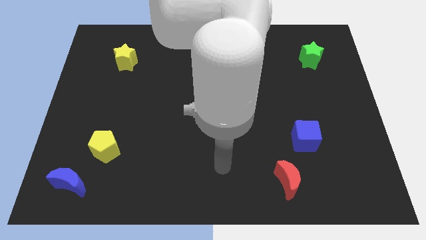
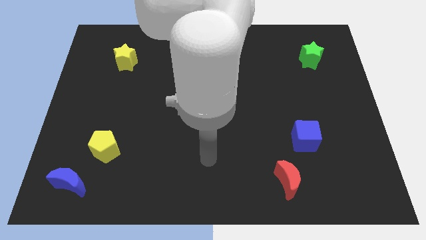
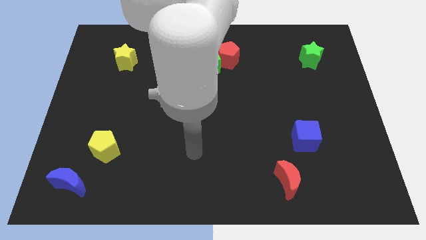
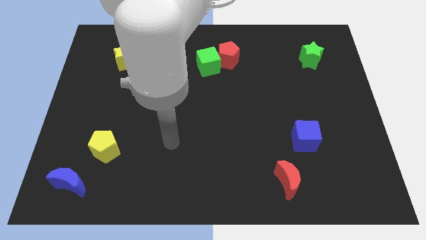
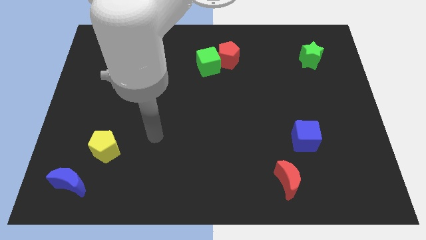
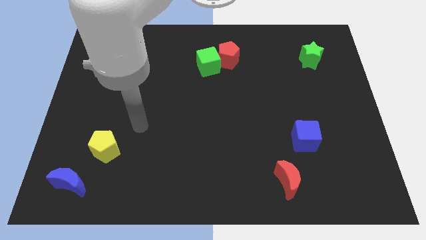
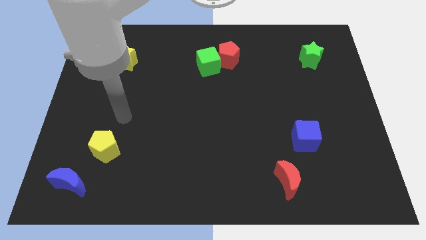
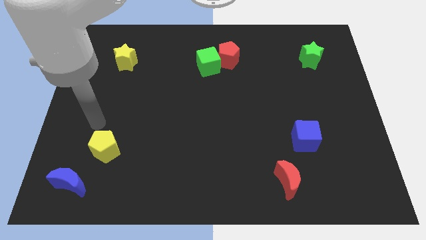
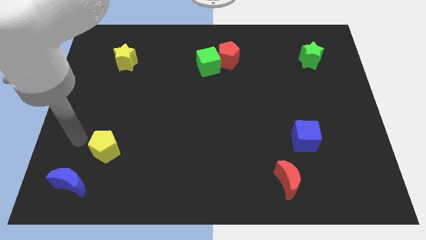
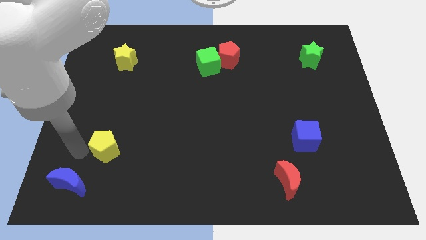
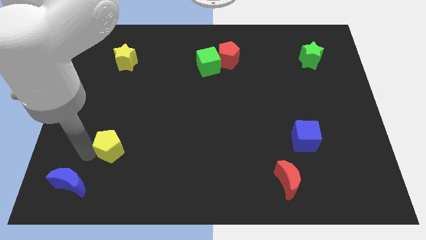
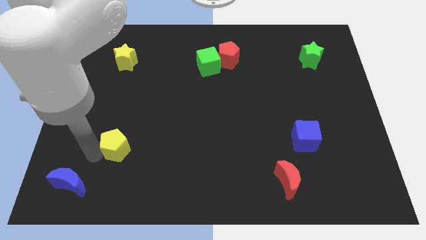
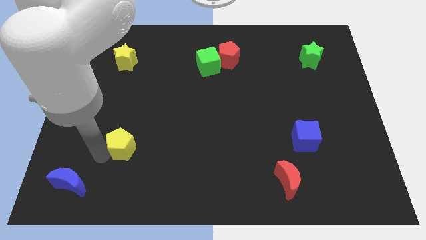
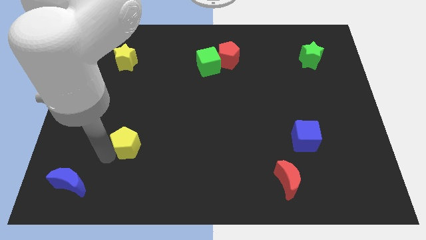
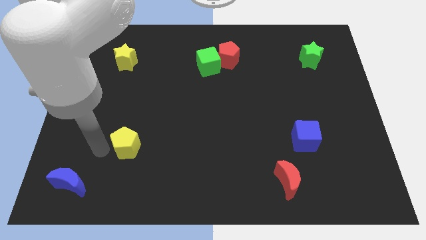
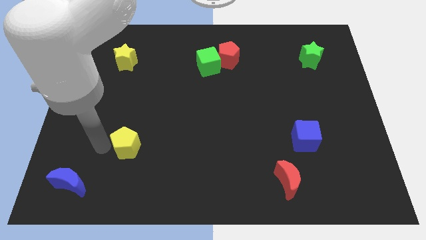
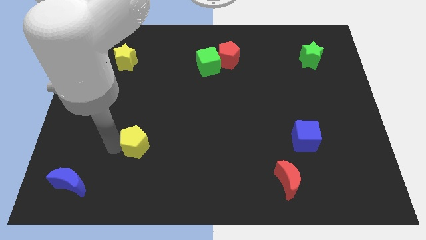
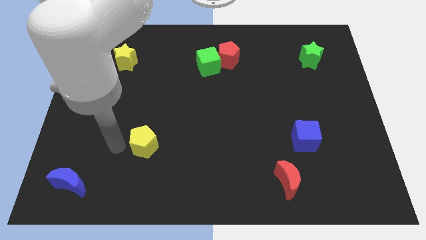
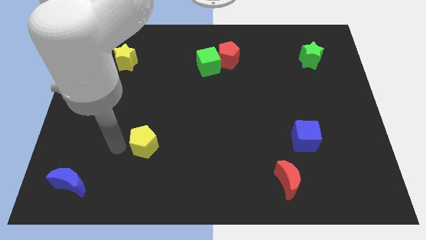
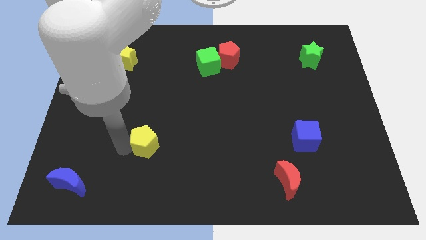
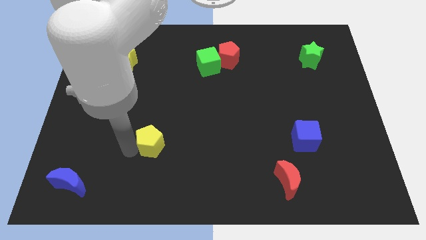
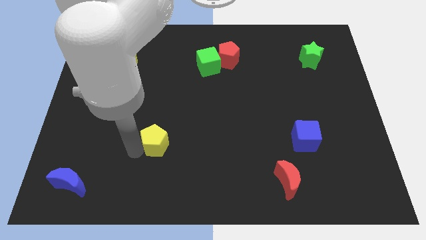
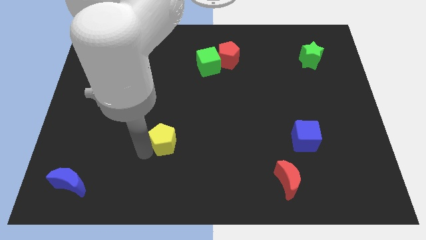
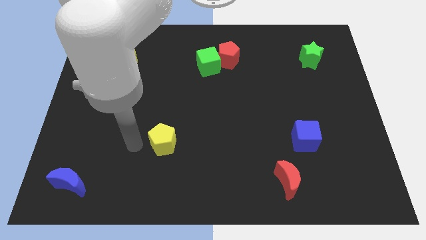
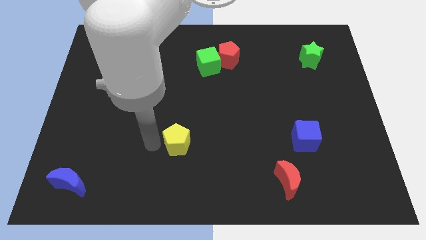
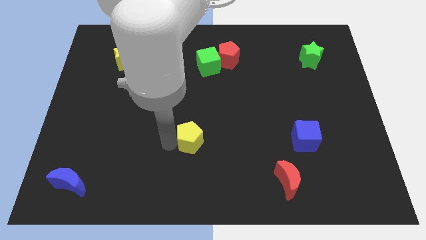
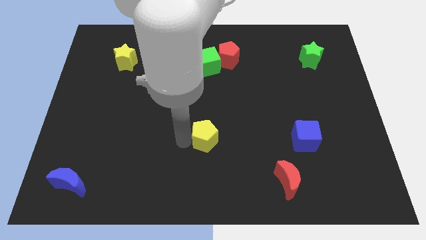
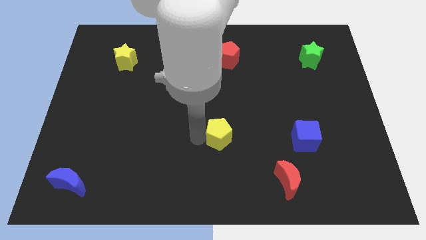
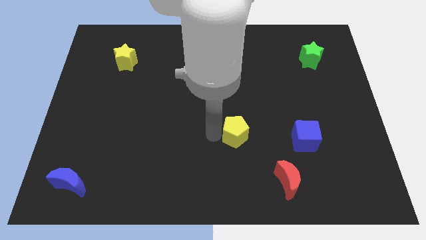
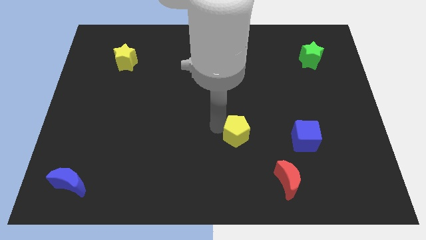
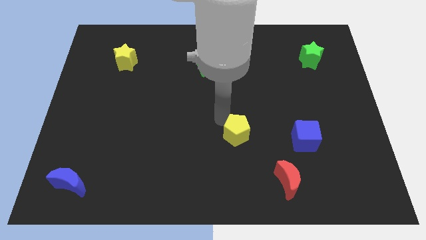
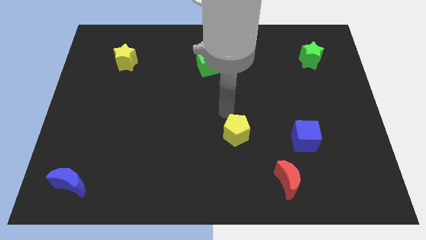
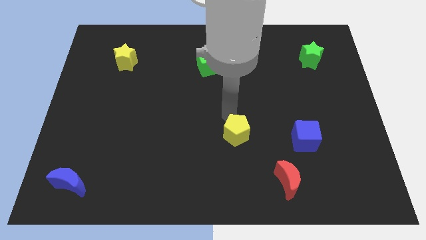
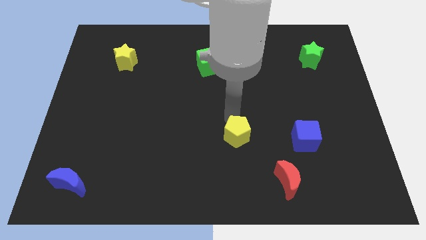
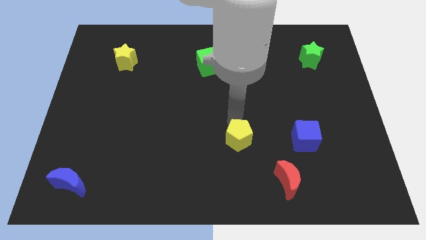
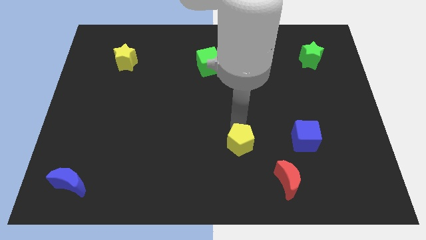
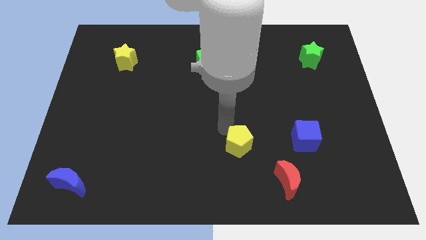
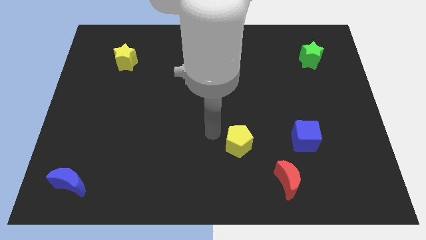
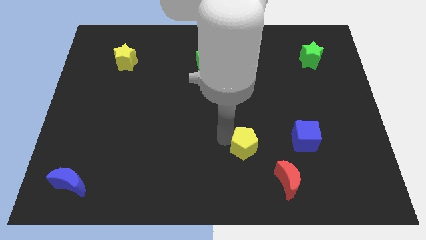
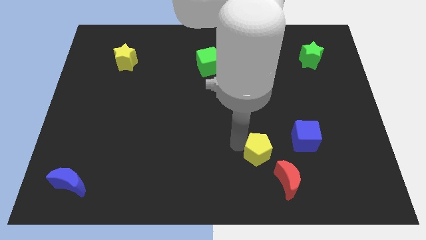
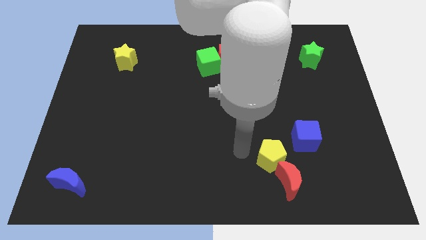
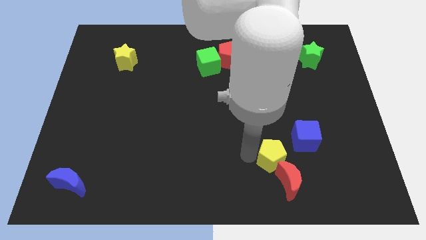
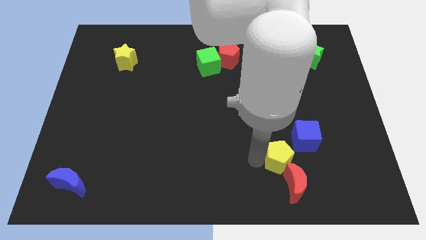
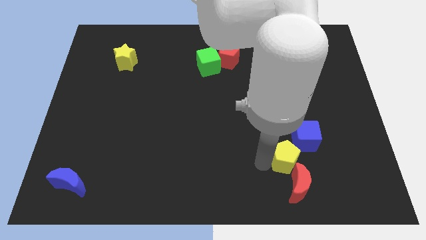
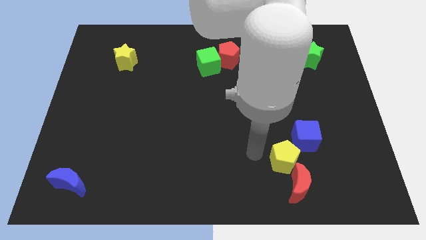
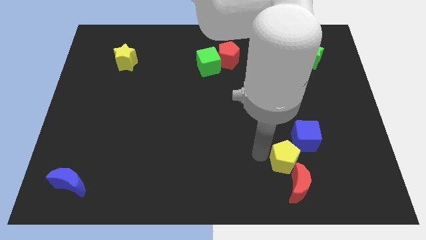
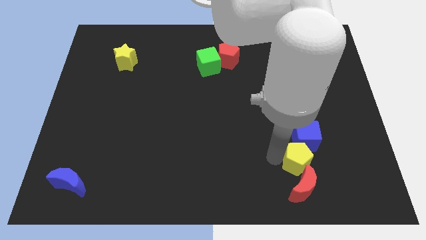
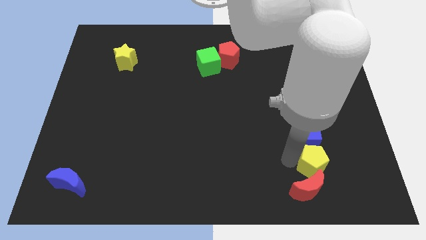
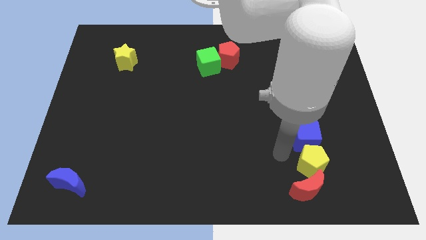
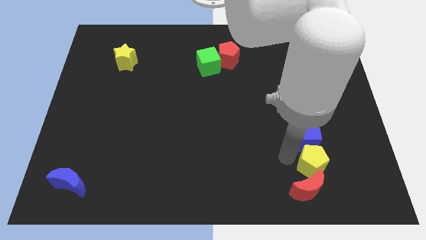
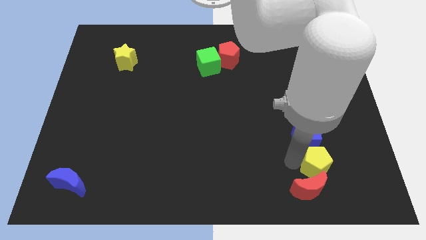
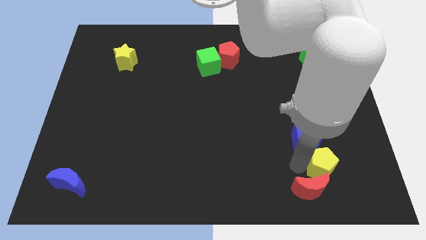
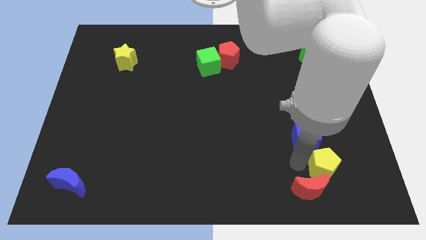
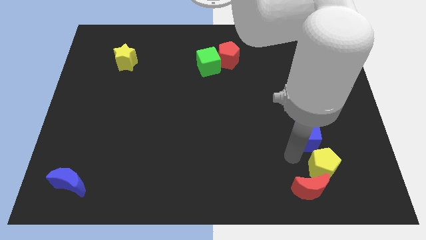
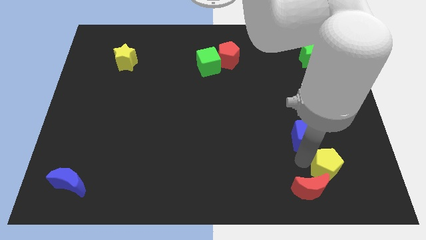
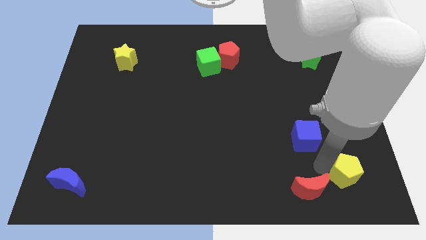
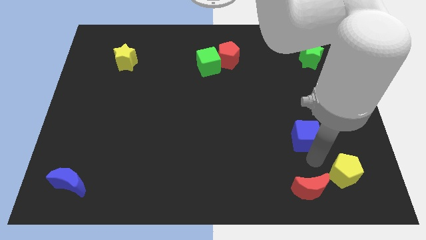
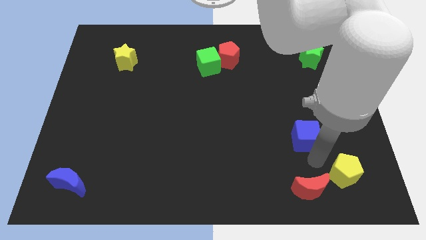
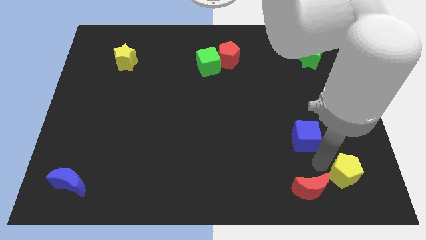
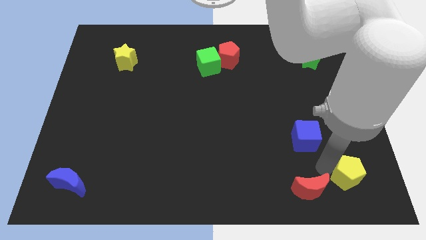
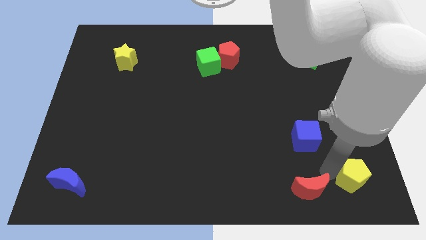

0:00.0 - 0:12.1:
push the yellow pentagon to the bottom right of the board

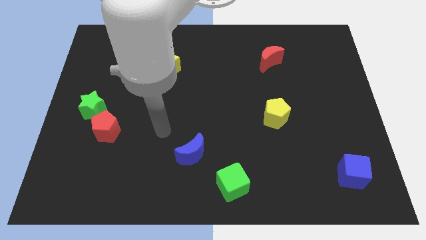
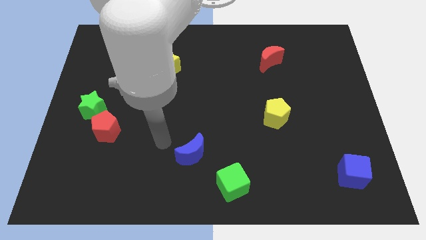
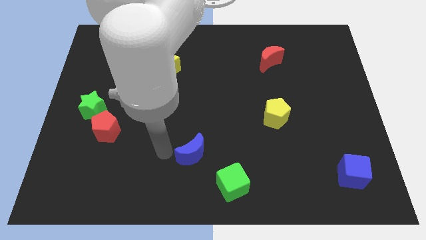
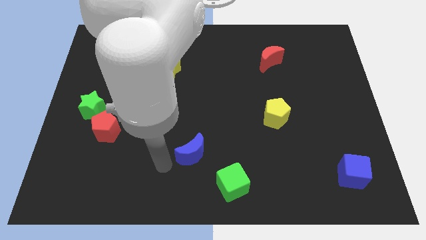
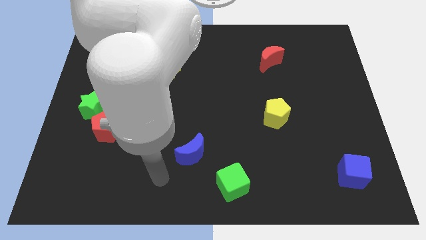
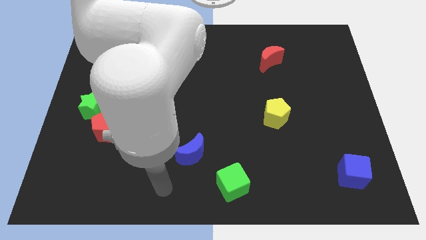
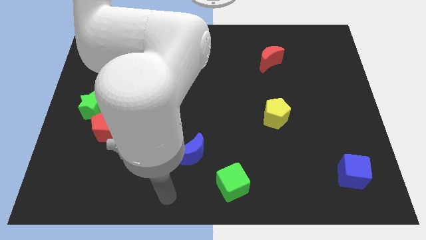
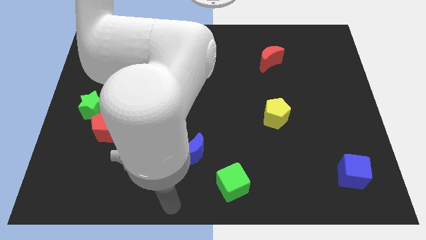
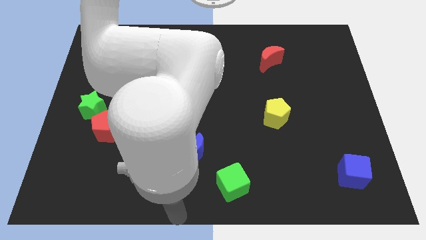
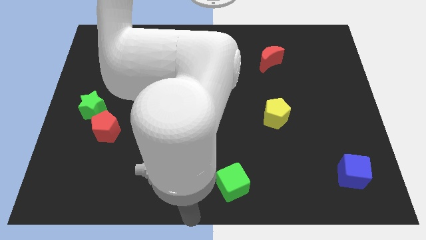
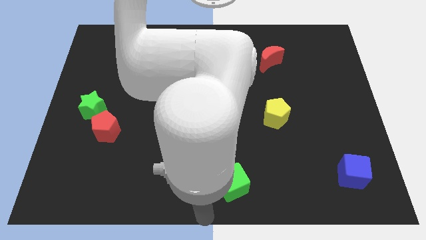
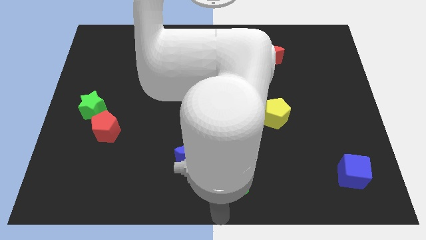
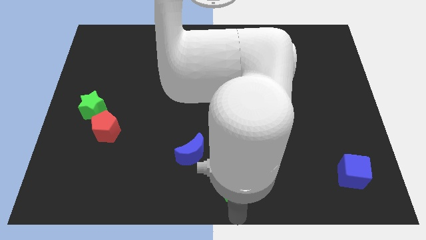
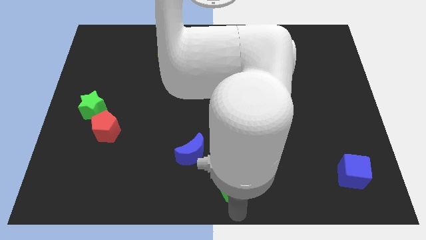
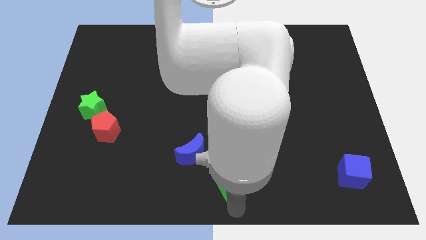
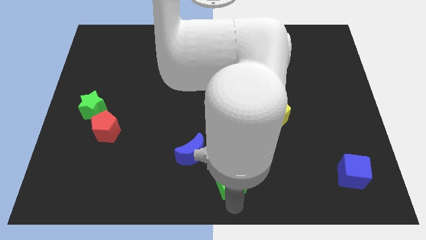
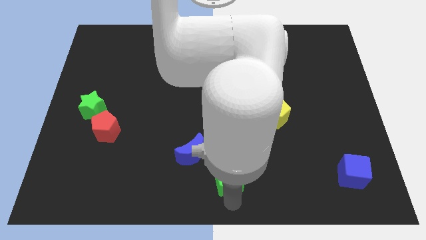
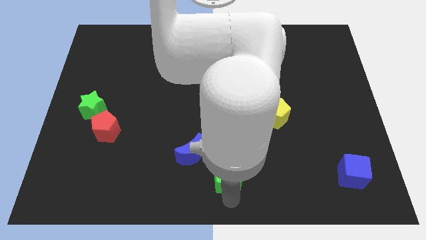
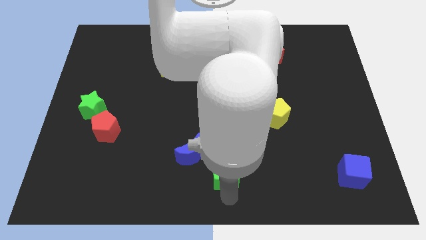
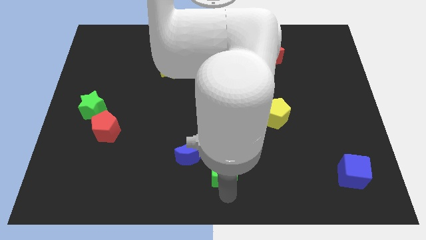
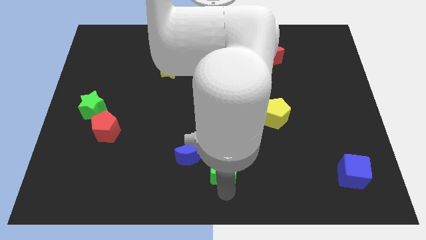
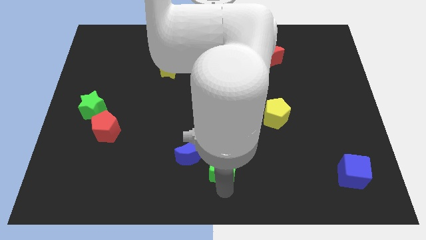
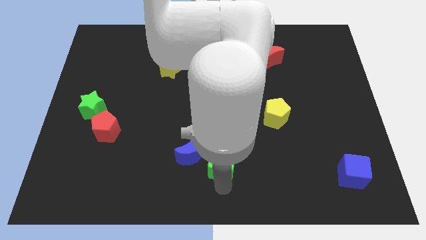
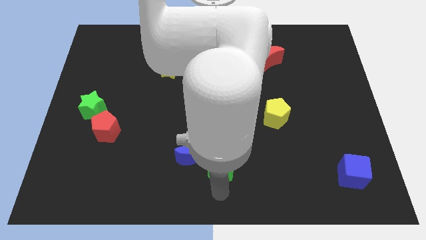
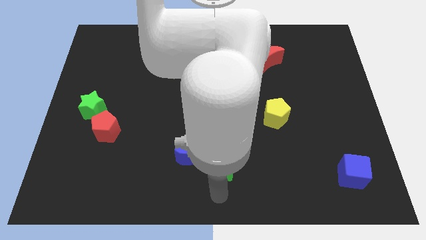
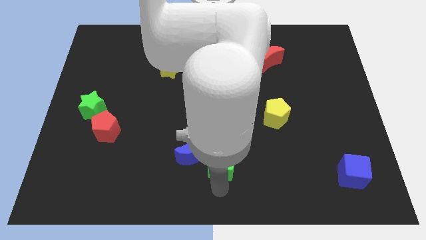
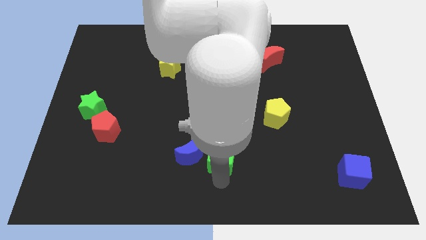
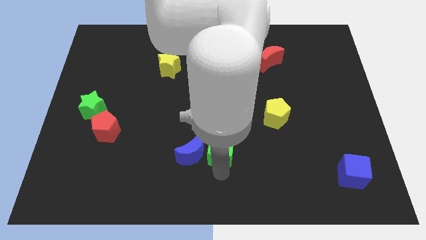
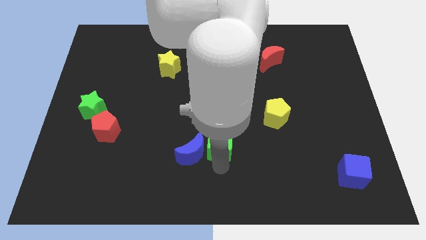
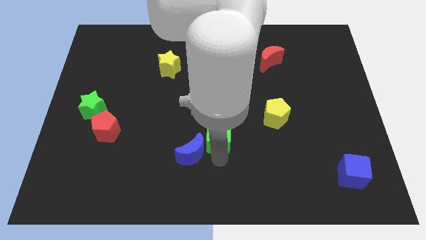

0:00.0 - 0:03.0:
put the green cube to the middle of the board
